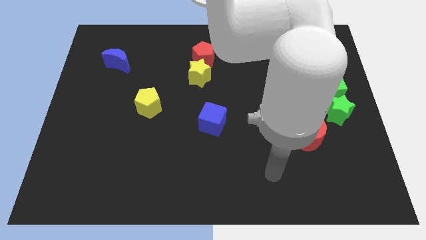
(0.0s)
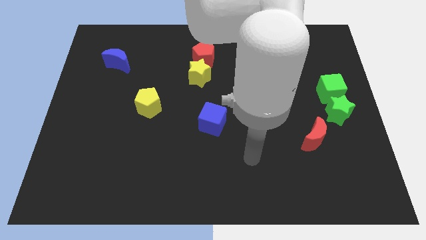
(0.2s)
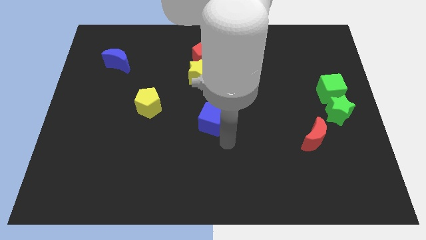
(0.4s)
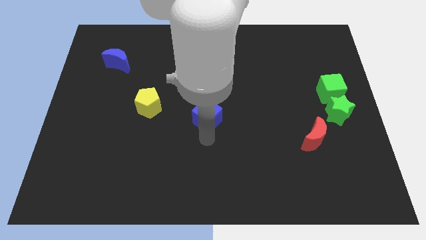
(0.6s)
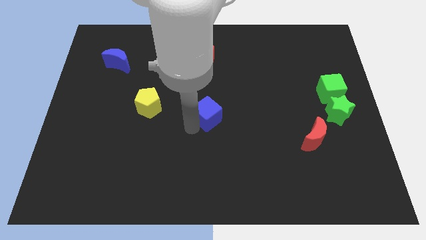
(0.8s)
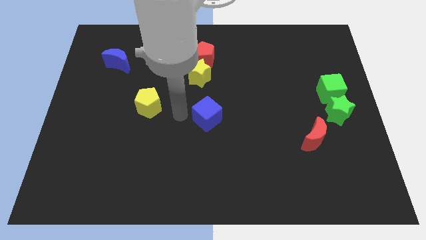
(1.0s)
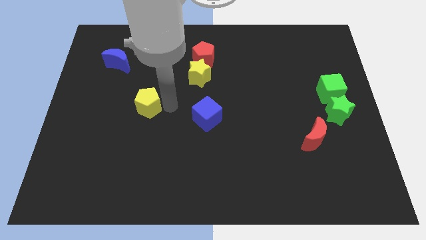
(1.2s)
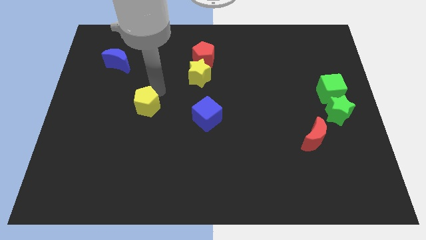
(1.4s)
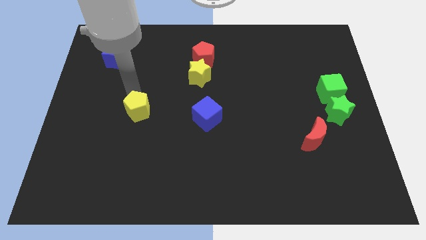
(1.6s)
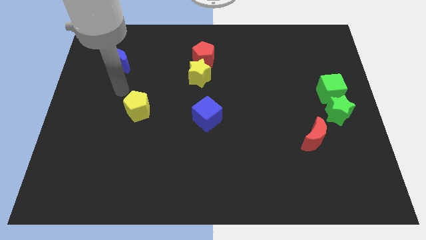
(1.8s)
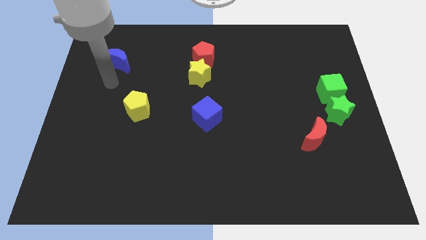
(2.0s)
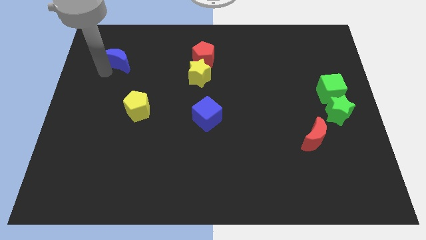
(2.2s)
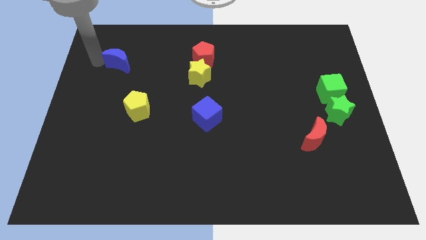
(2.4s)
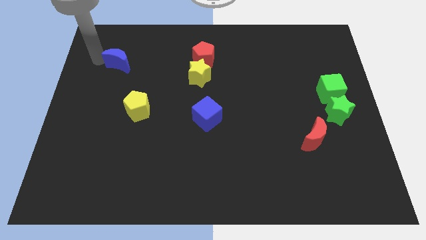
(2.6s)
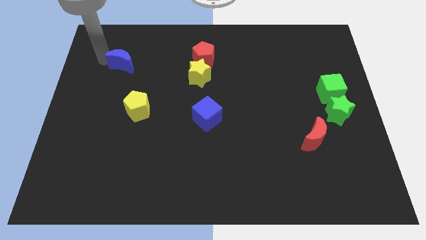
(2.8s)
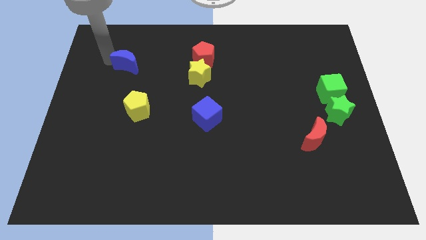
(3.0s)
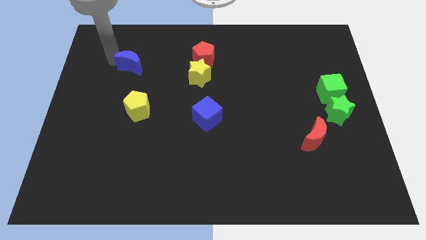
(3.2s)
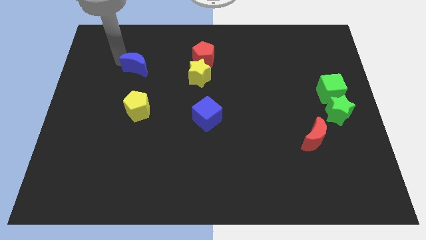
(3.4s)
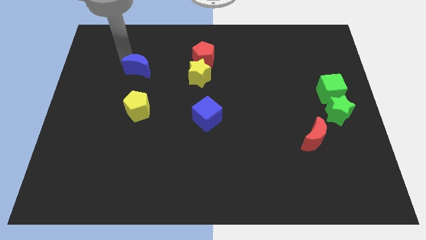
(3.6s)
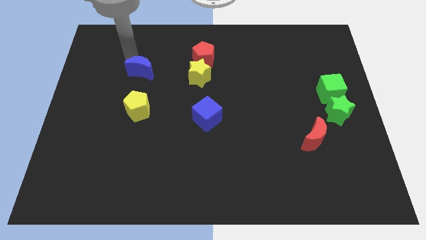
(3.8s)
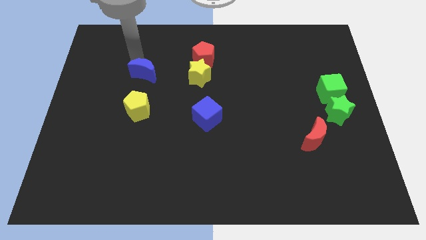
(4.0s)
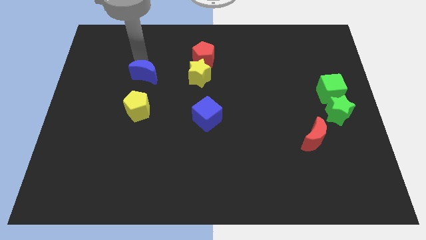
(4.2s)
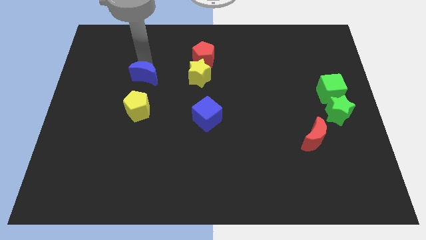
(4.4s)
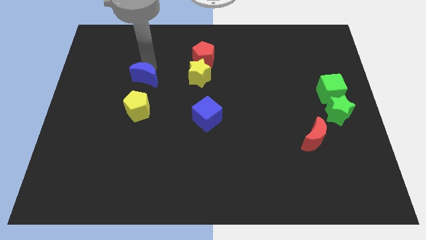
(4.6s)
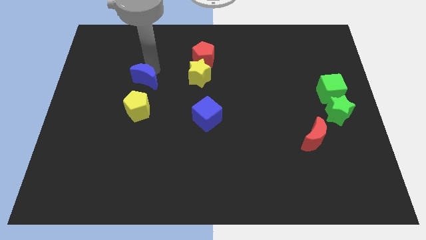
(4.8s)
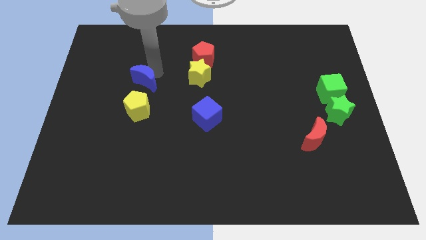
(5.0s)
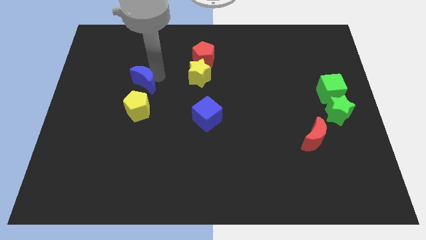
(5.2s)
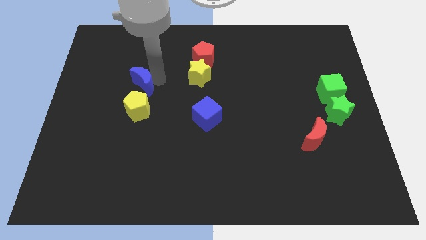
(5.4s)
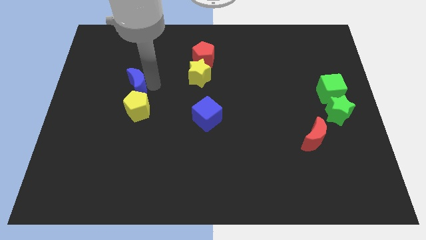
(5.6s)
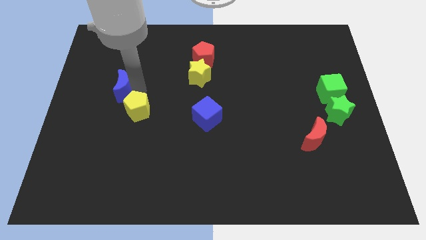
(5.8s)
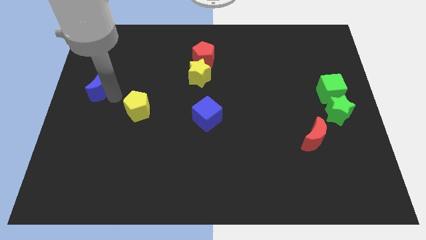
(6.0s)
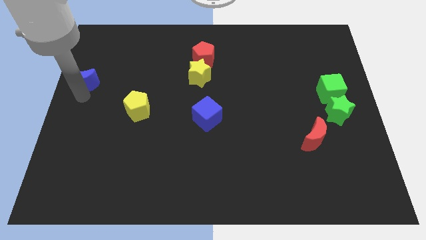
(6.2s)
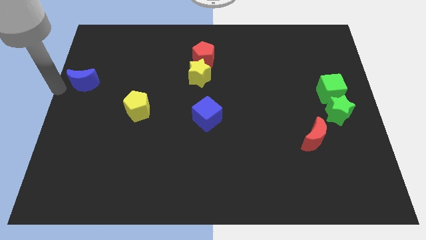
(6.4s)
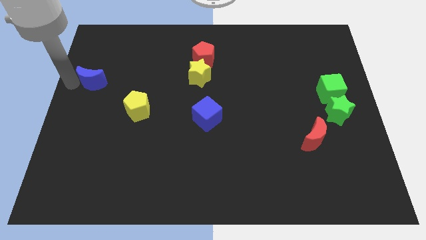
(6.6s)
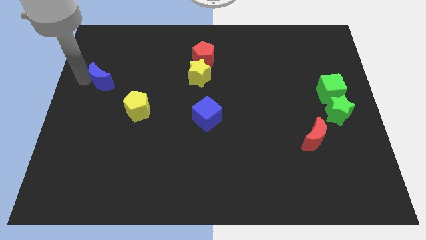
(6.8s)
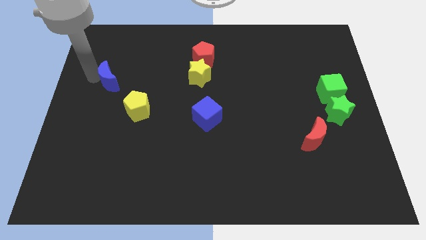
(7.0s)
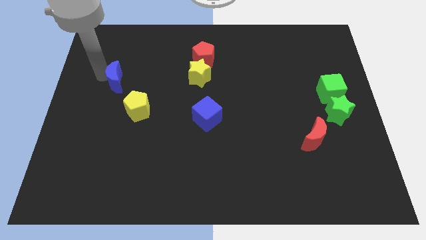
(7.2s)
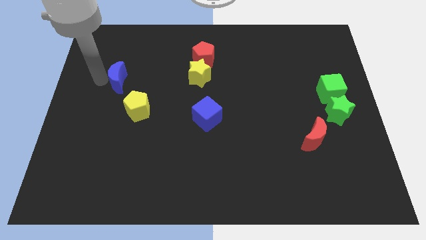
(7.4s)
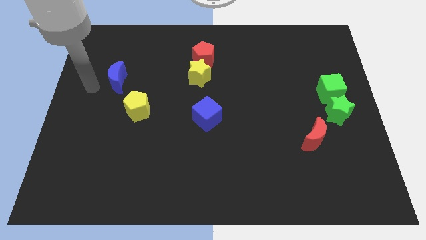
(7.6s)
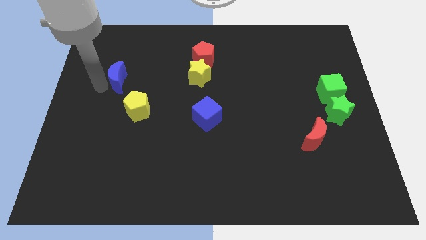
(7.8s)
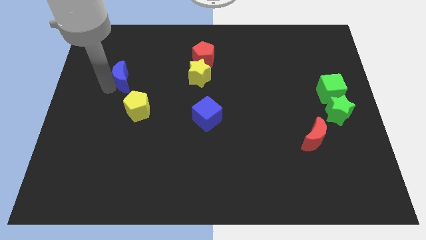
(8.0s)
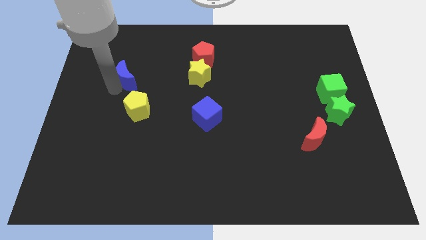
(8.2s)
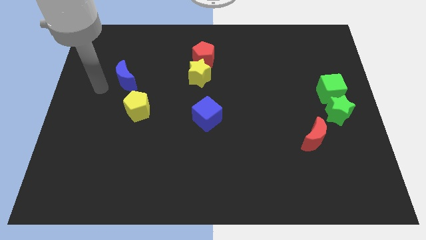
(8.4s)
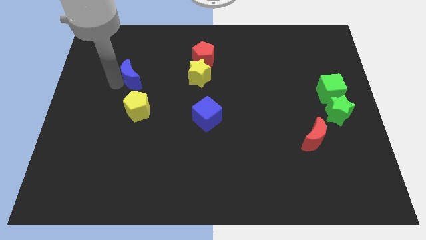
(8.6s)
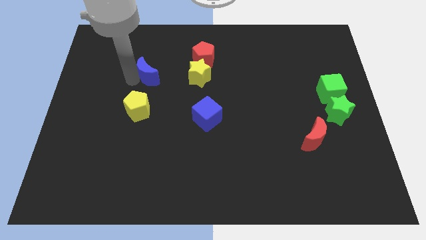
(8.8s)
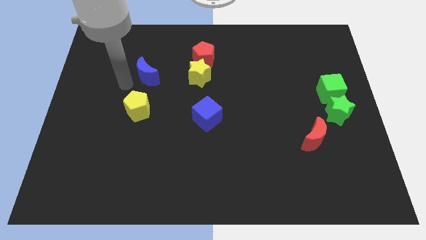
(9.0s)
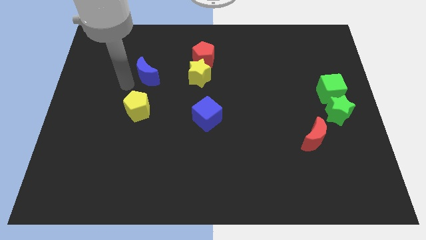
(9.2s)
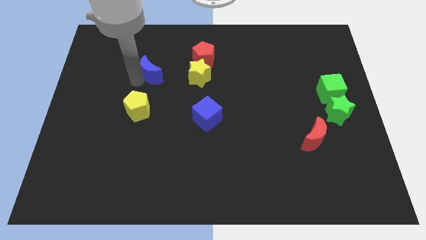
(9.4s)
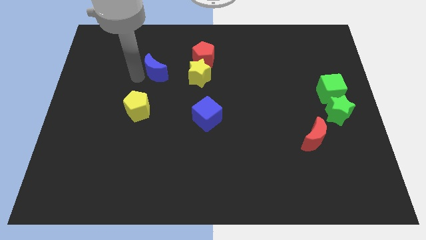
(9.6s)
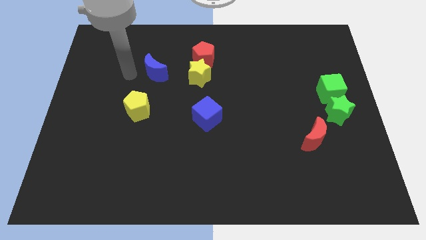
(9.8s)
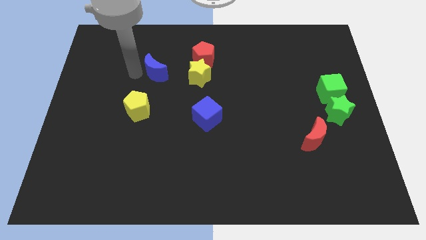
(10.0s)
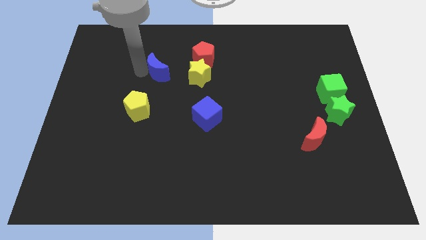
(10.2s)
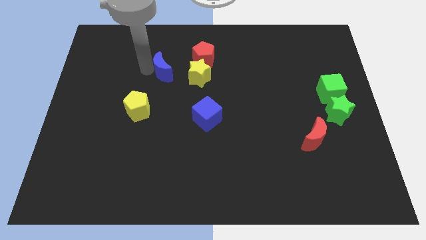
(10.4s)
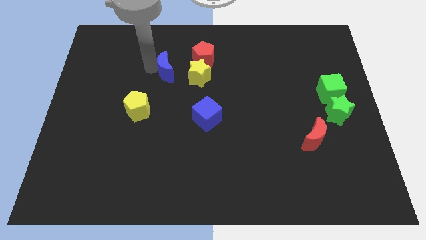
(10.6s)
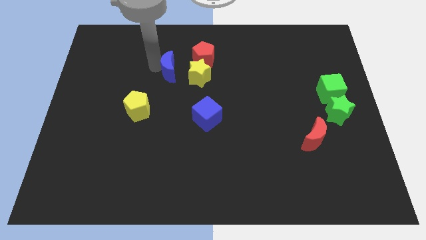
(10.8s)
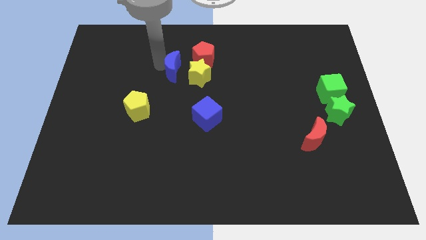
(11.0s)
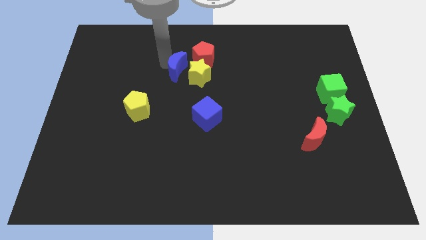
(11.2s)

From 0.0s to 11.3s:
slide the blue moon next to the yellow star

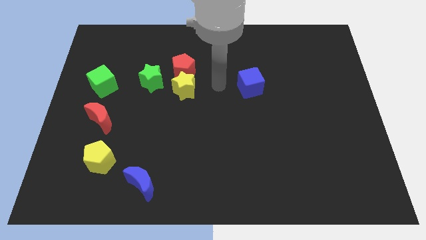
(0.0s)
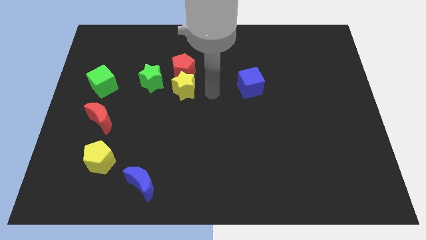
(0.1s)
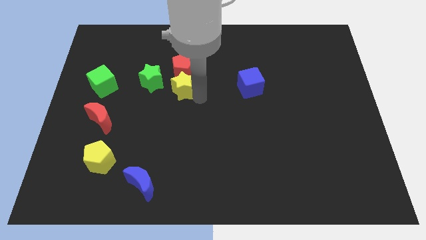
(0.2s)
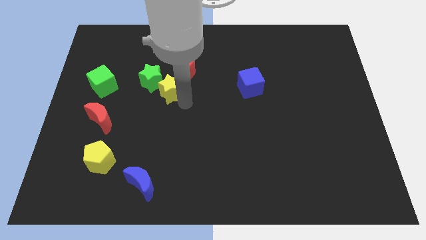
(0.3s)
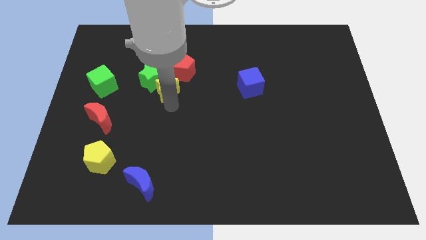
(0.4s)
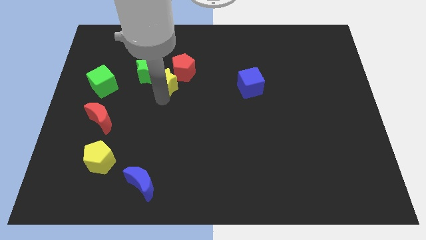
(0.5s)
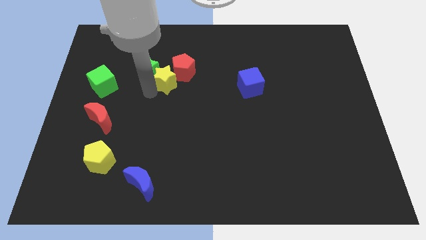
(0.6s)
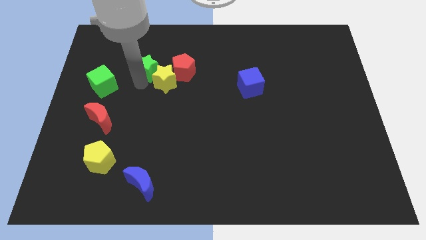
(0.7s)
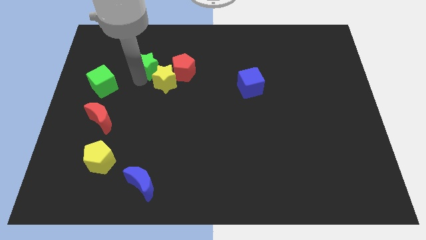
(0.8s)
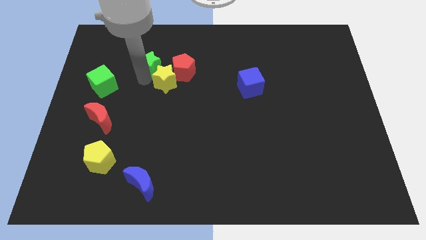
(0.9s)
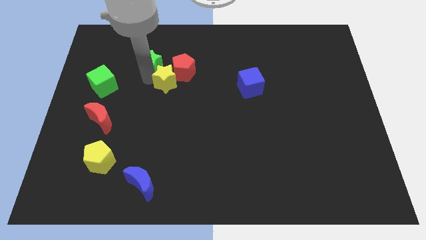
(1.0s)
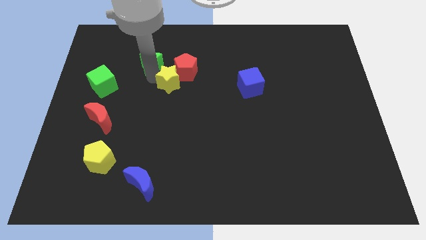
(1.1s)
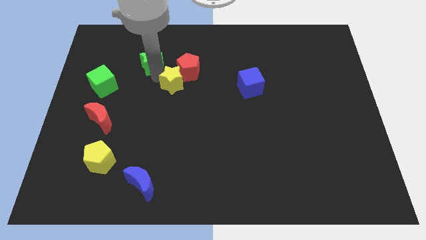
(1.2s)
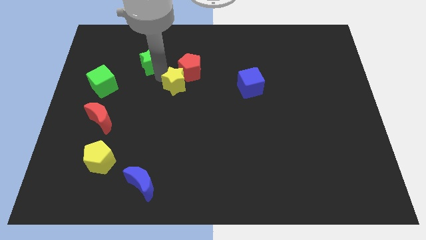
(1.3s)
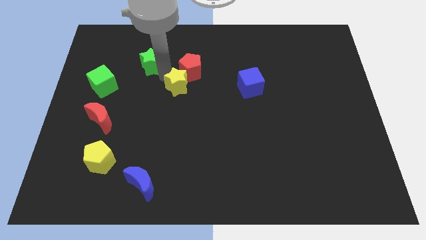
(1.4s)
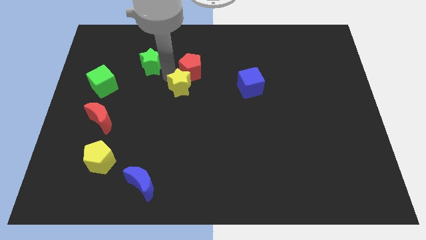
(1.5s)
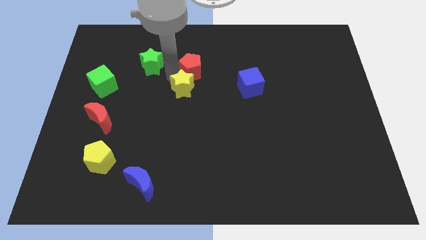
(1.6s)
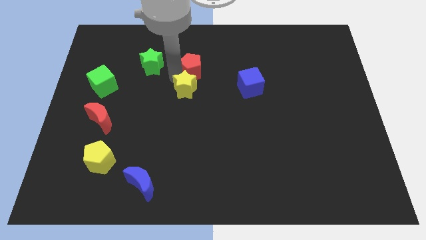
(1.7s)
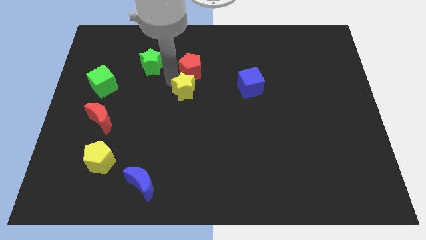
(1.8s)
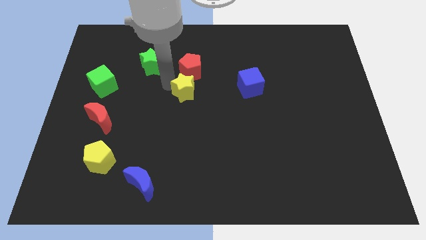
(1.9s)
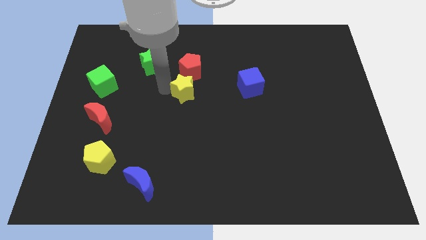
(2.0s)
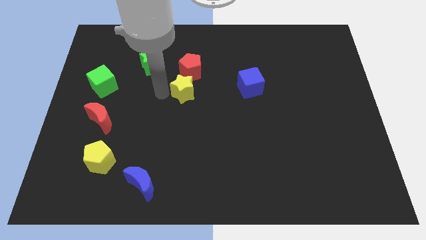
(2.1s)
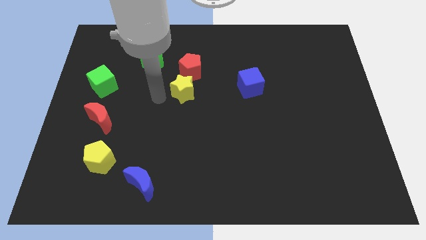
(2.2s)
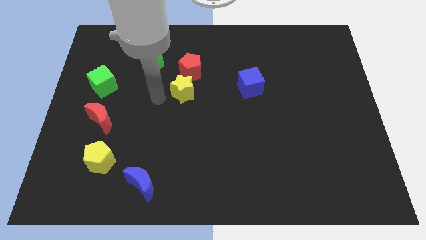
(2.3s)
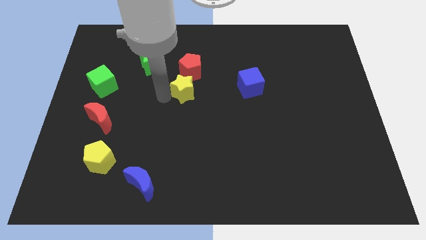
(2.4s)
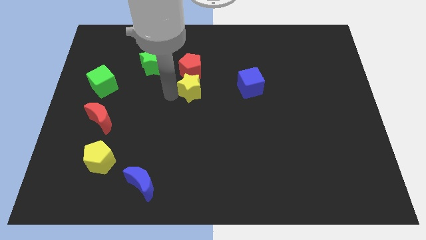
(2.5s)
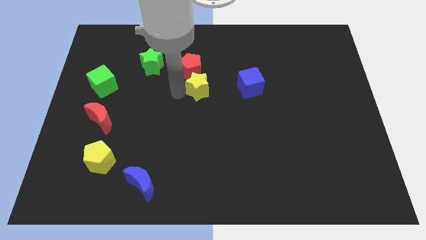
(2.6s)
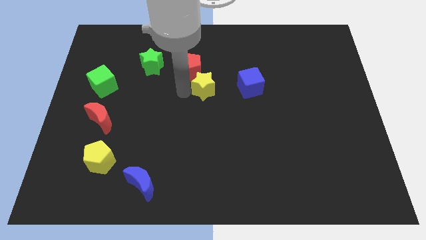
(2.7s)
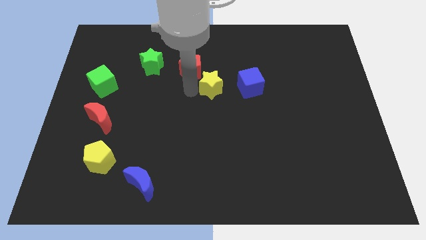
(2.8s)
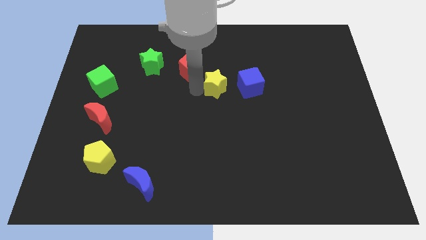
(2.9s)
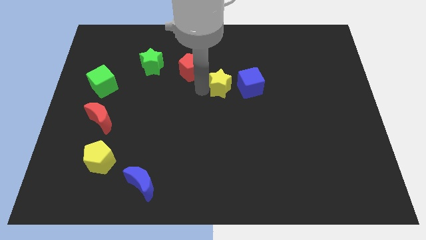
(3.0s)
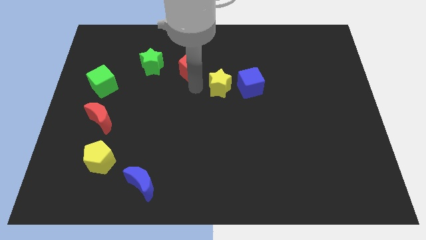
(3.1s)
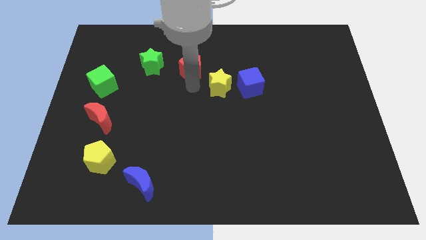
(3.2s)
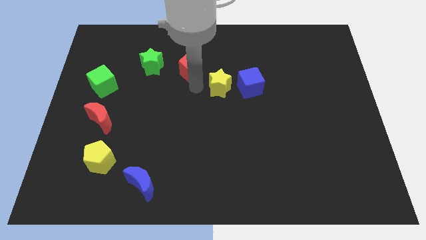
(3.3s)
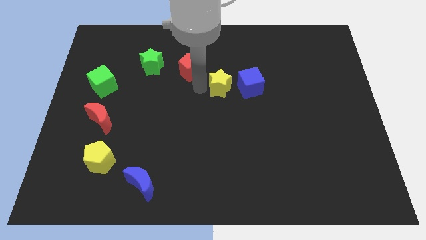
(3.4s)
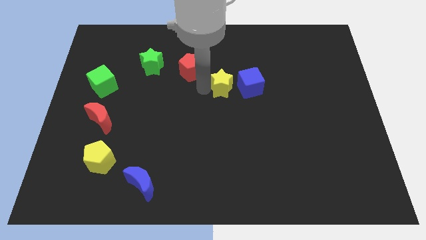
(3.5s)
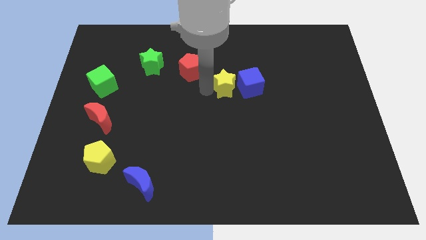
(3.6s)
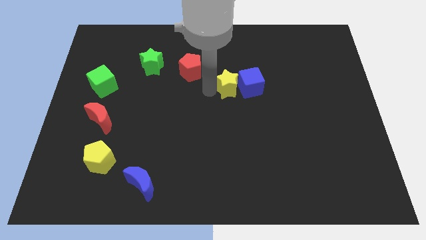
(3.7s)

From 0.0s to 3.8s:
move the yellow star to the blue cube
